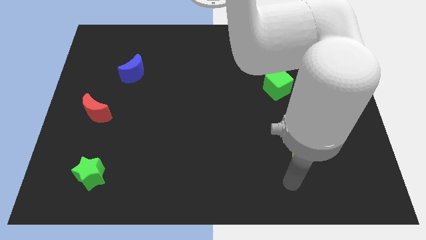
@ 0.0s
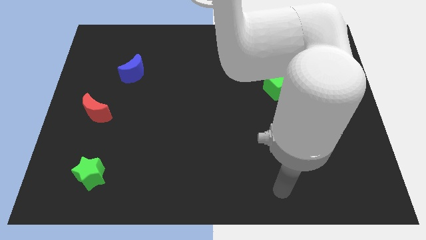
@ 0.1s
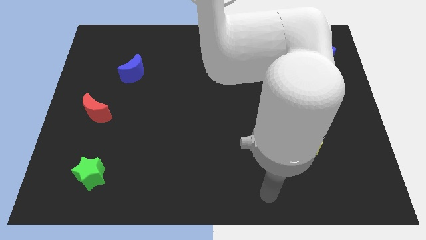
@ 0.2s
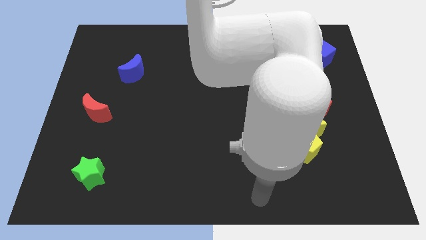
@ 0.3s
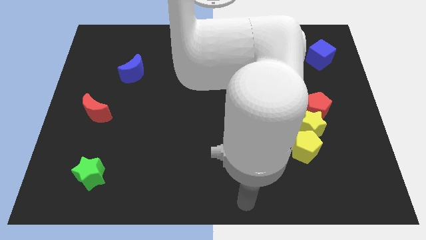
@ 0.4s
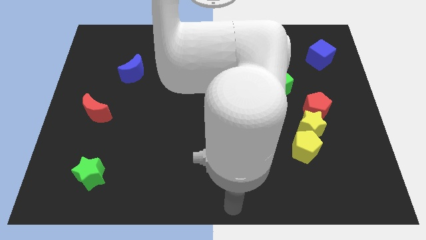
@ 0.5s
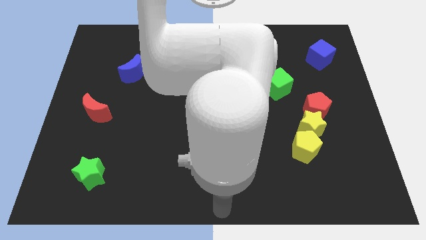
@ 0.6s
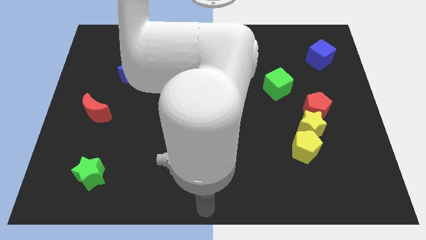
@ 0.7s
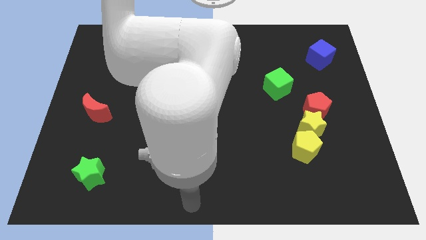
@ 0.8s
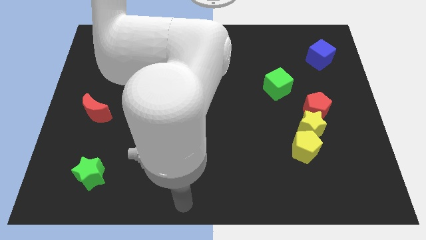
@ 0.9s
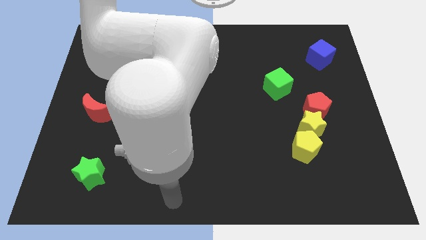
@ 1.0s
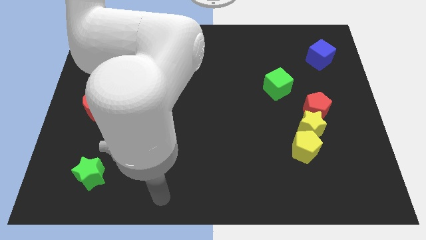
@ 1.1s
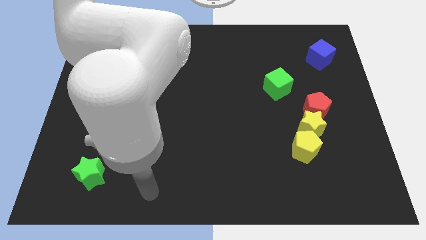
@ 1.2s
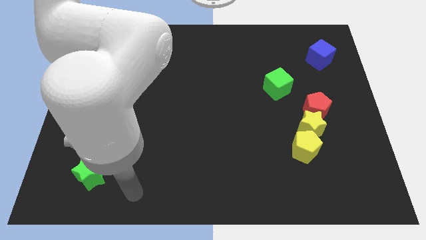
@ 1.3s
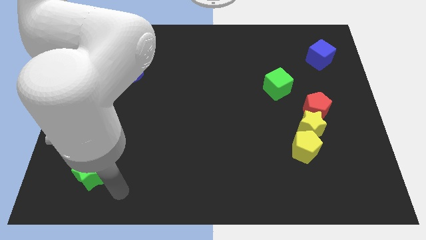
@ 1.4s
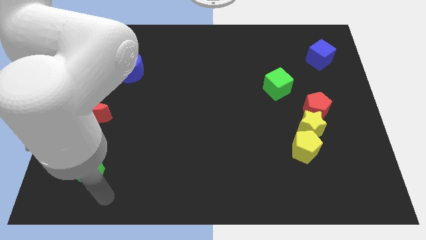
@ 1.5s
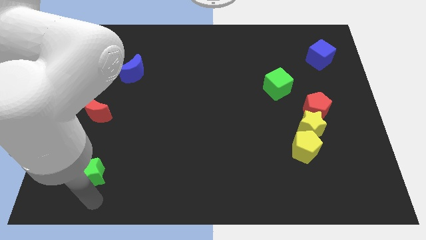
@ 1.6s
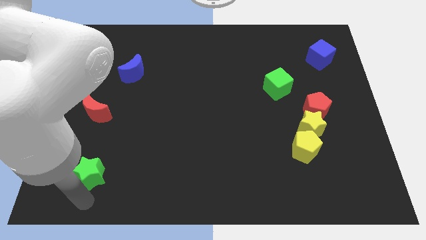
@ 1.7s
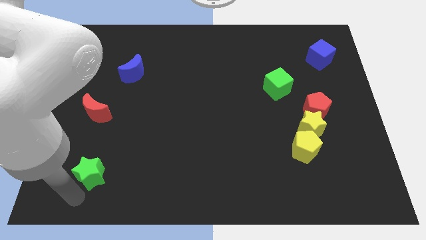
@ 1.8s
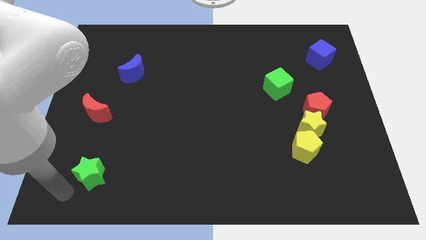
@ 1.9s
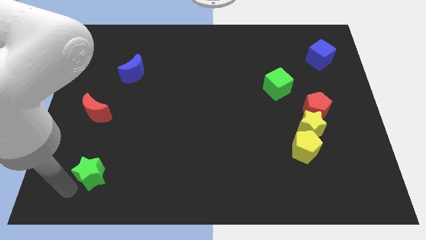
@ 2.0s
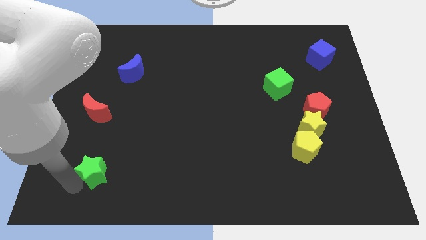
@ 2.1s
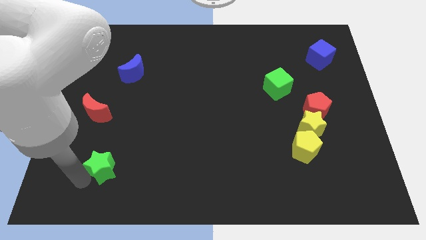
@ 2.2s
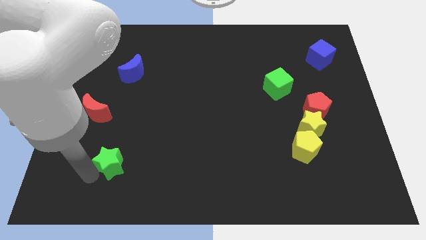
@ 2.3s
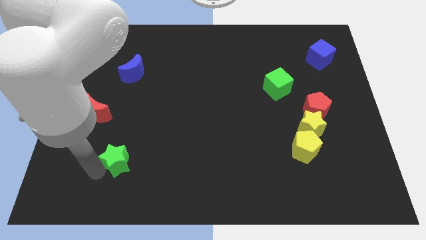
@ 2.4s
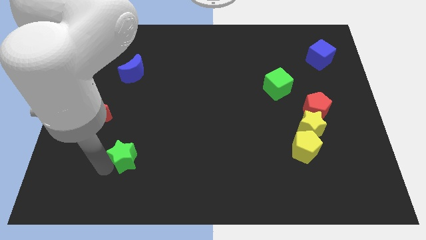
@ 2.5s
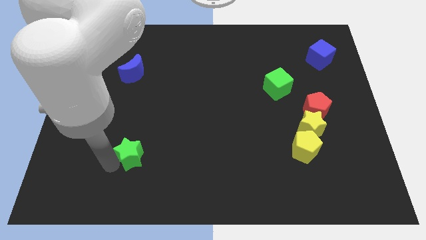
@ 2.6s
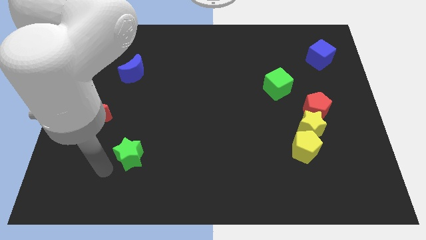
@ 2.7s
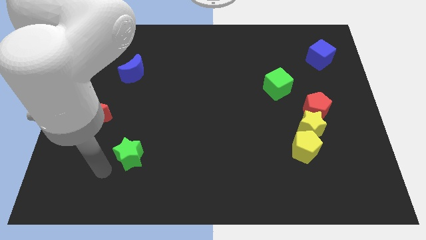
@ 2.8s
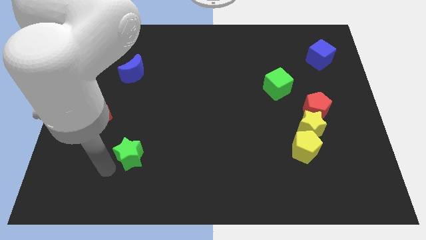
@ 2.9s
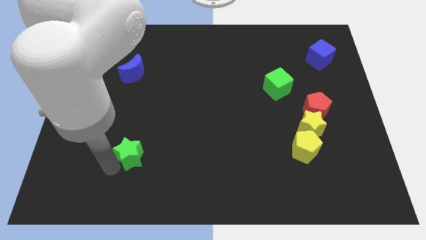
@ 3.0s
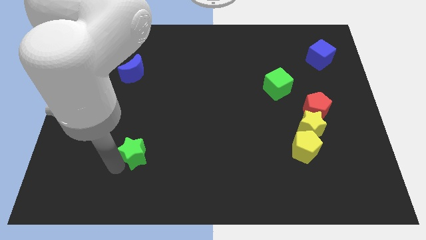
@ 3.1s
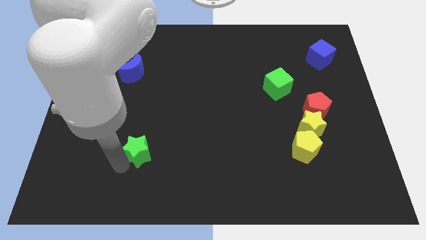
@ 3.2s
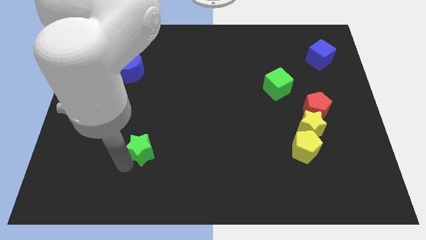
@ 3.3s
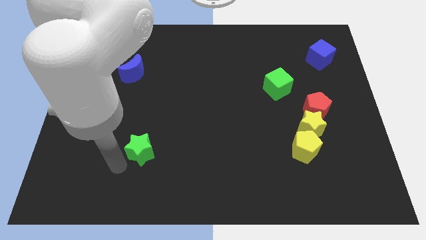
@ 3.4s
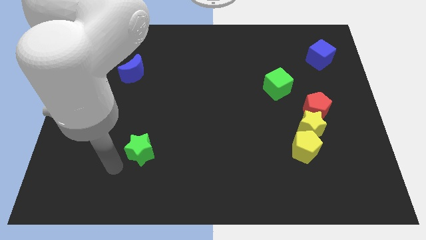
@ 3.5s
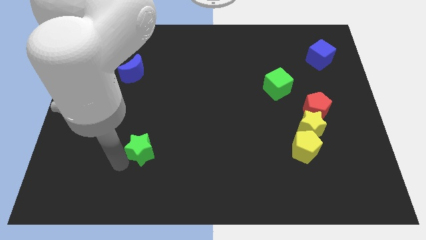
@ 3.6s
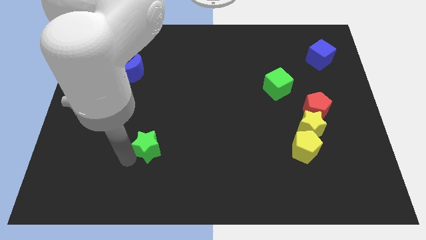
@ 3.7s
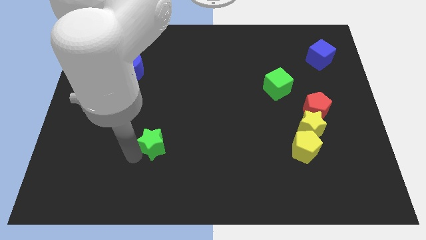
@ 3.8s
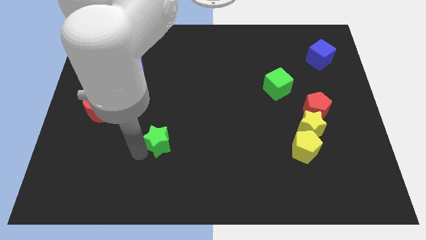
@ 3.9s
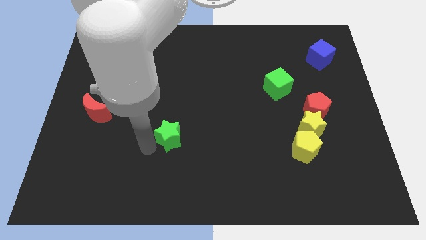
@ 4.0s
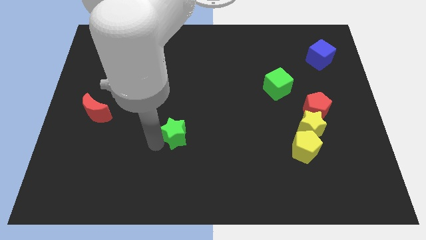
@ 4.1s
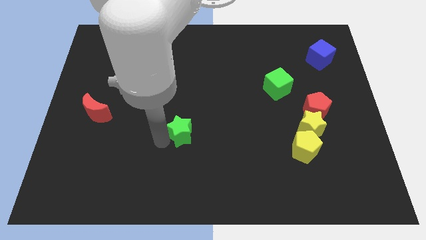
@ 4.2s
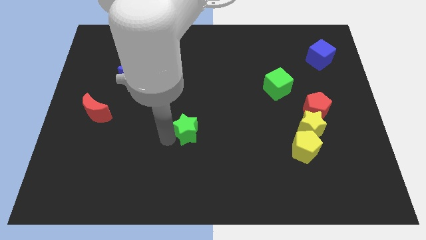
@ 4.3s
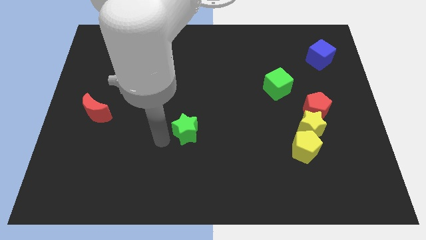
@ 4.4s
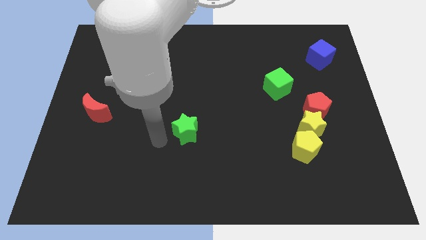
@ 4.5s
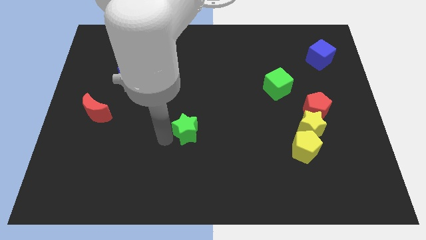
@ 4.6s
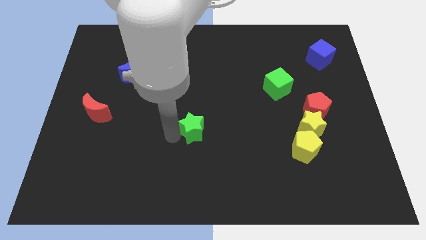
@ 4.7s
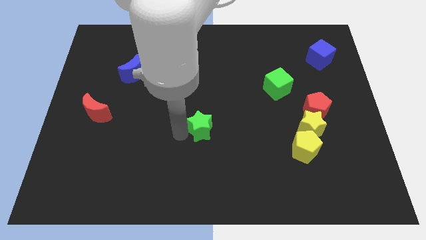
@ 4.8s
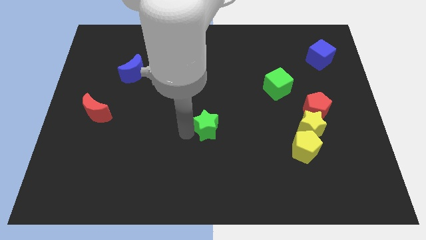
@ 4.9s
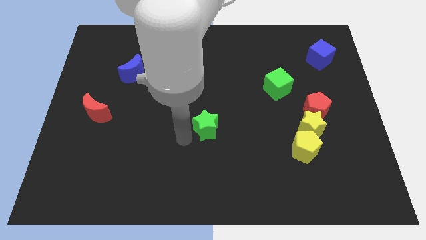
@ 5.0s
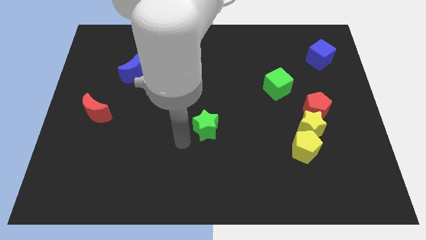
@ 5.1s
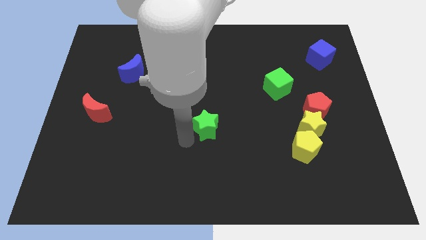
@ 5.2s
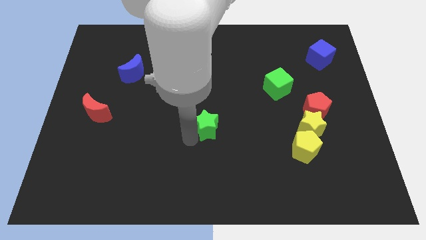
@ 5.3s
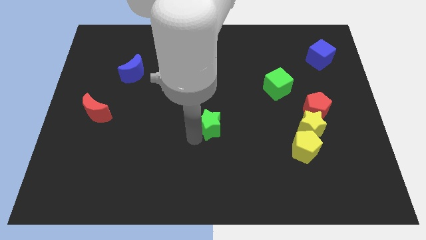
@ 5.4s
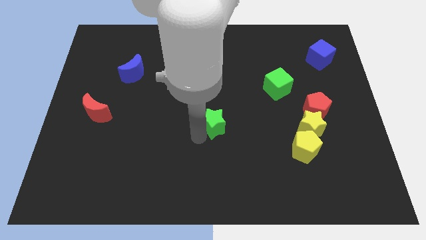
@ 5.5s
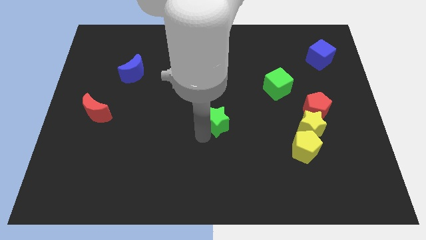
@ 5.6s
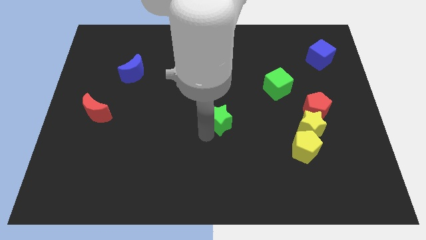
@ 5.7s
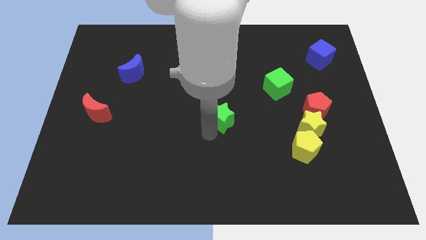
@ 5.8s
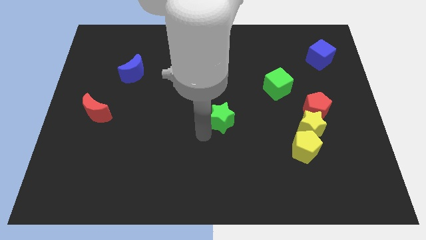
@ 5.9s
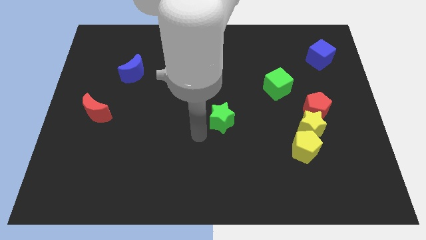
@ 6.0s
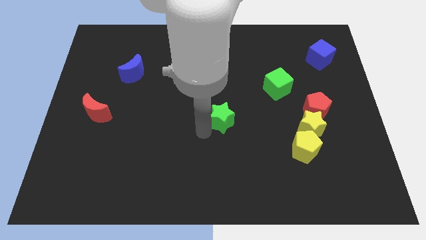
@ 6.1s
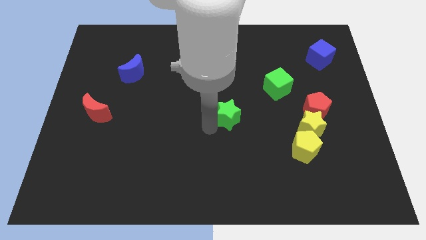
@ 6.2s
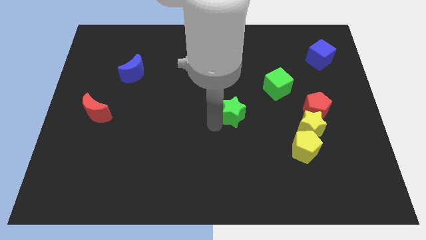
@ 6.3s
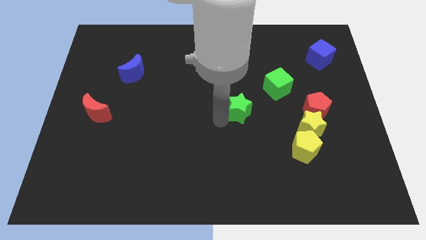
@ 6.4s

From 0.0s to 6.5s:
push the green star to the bottom left of the green cube
